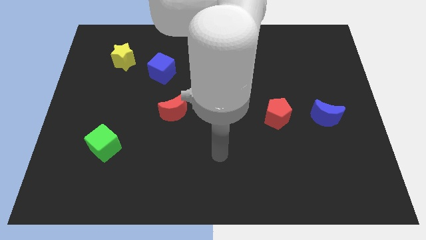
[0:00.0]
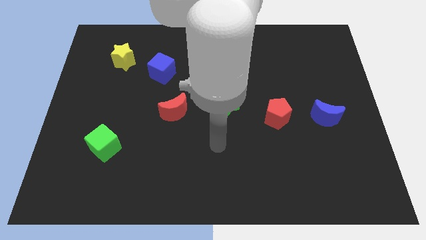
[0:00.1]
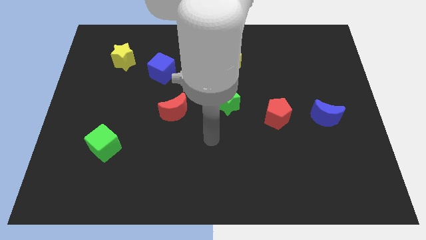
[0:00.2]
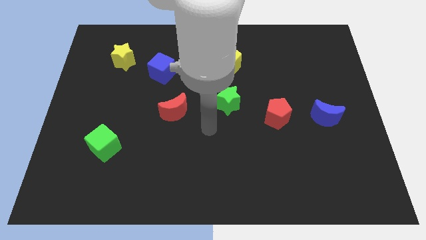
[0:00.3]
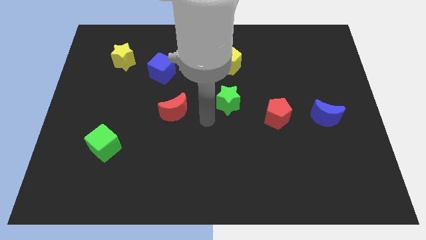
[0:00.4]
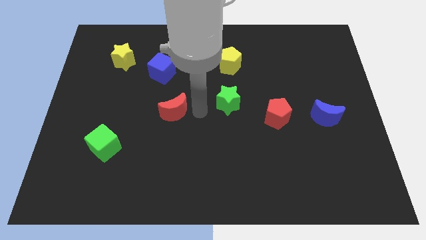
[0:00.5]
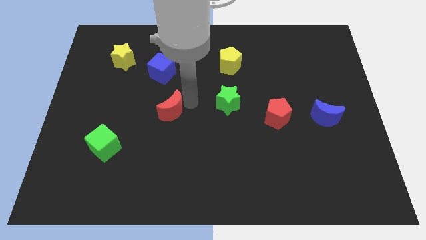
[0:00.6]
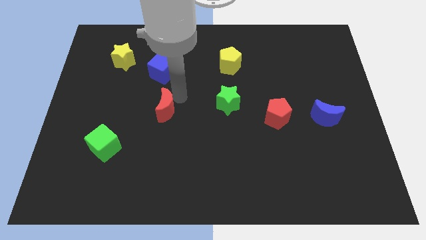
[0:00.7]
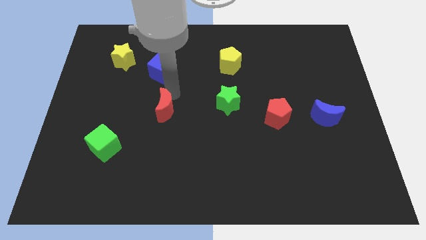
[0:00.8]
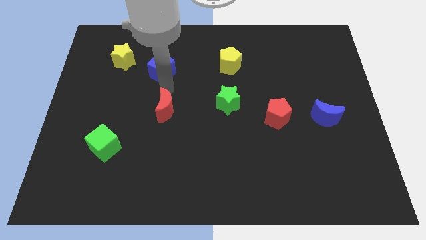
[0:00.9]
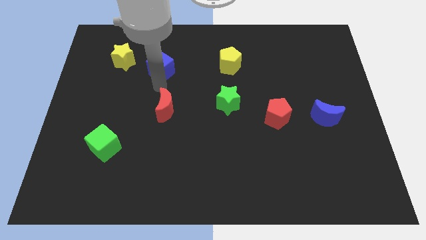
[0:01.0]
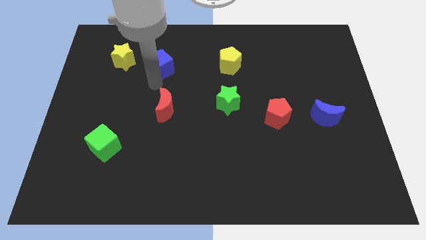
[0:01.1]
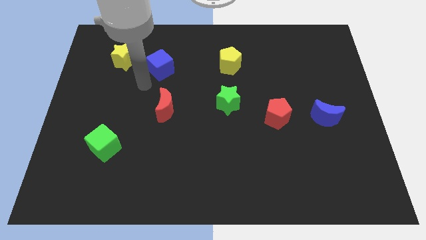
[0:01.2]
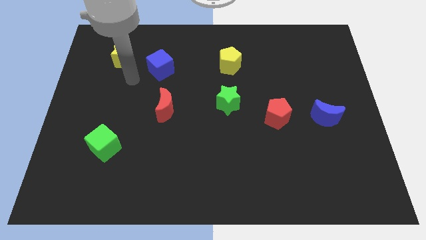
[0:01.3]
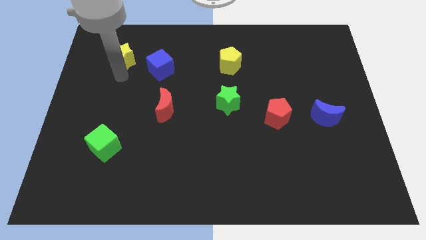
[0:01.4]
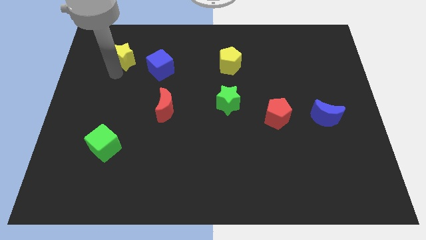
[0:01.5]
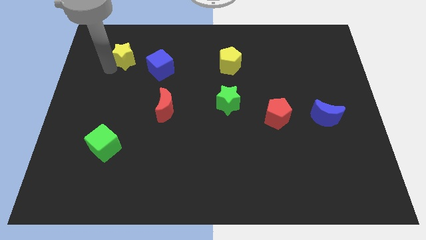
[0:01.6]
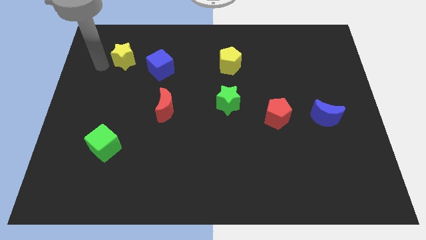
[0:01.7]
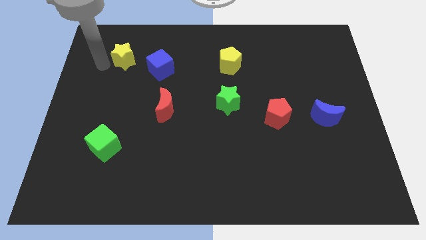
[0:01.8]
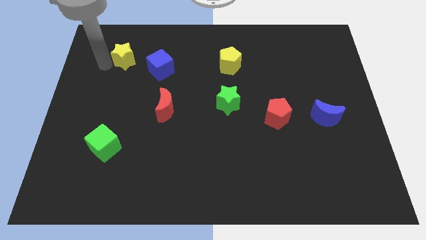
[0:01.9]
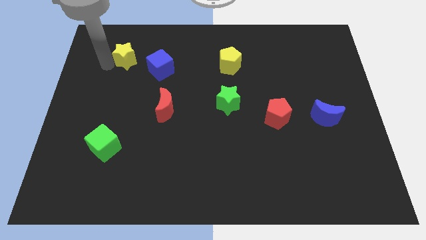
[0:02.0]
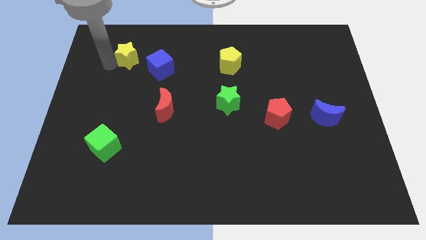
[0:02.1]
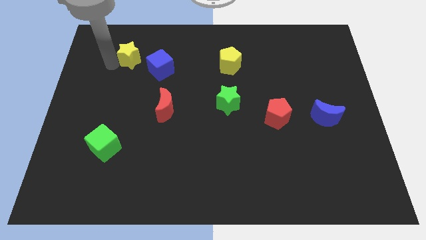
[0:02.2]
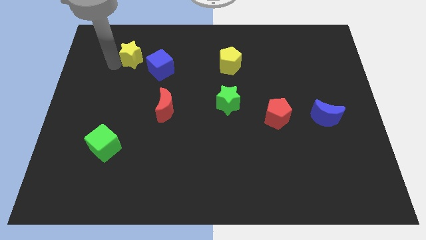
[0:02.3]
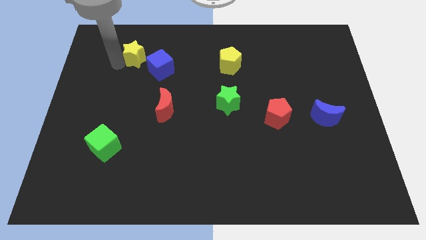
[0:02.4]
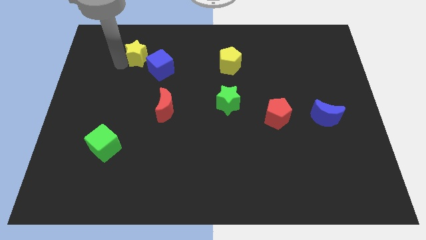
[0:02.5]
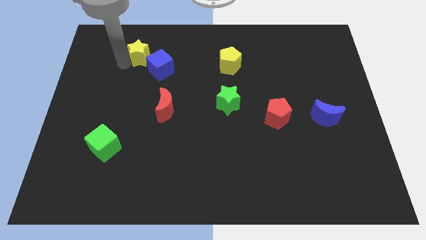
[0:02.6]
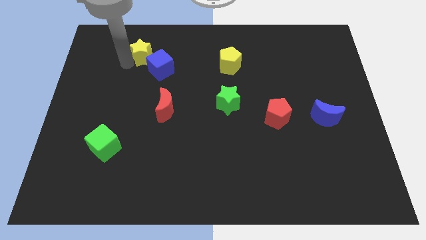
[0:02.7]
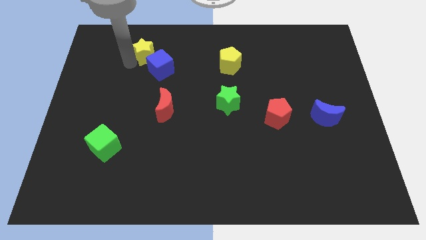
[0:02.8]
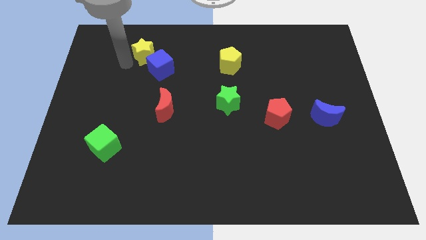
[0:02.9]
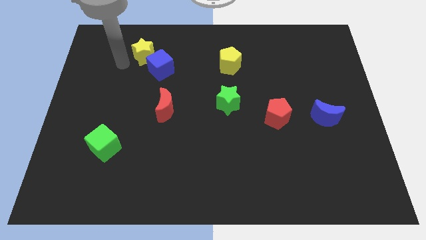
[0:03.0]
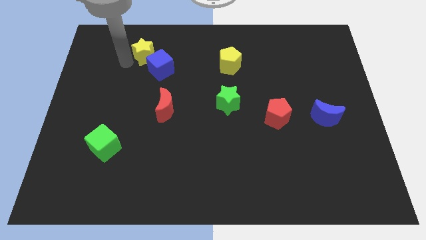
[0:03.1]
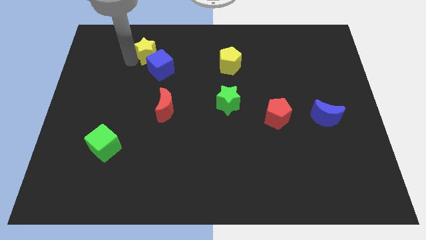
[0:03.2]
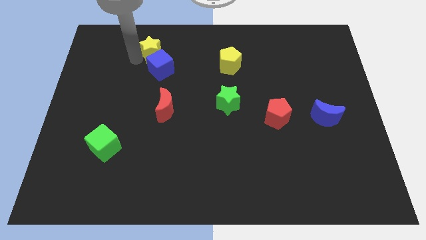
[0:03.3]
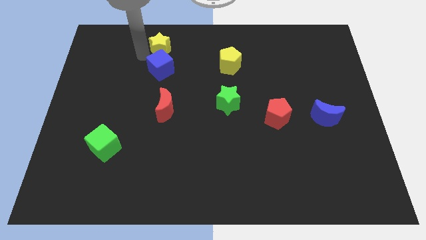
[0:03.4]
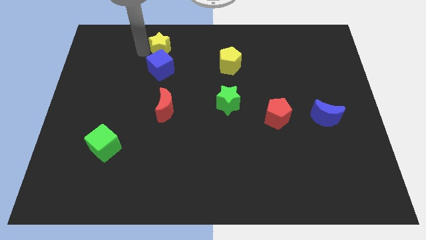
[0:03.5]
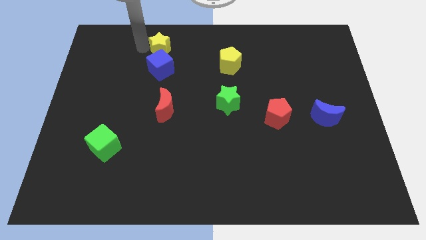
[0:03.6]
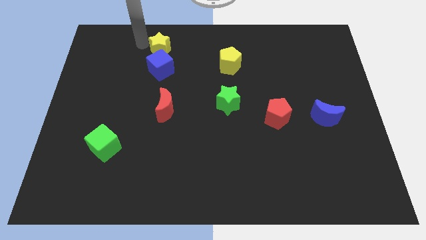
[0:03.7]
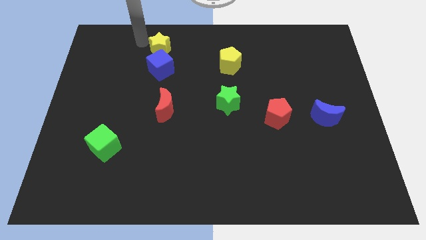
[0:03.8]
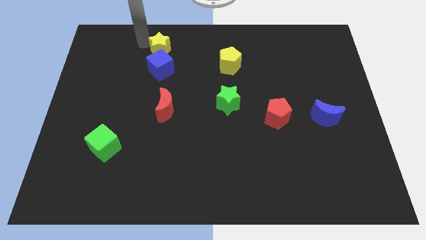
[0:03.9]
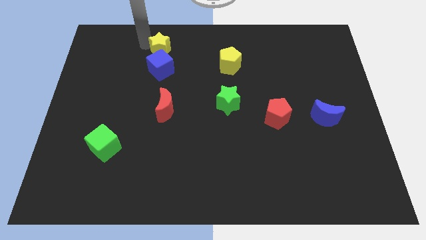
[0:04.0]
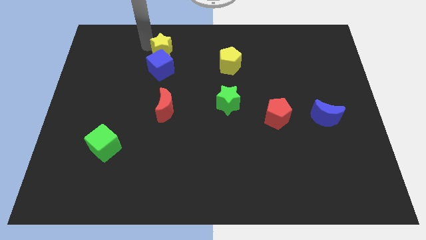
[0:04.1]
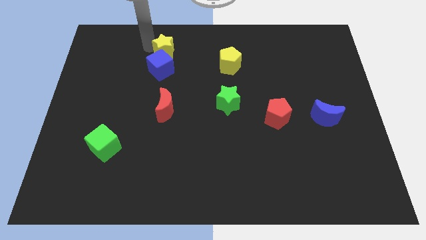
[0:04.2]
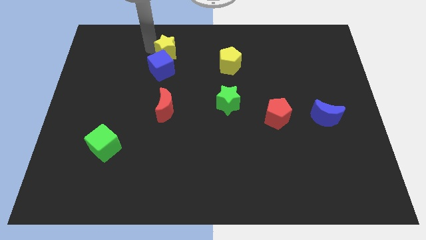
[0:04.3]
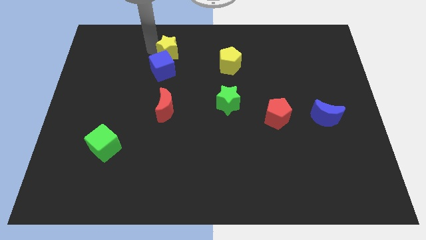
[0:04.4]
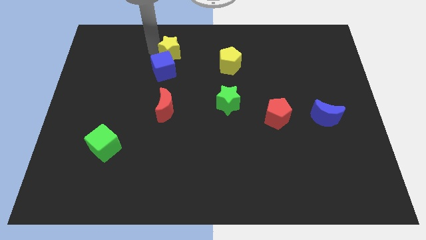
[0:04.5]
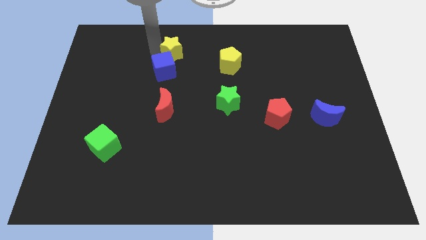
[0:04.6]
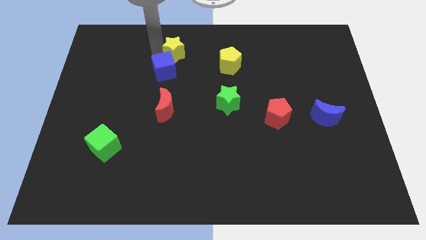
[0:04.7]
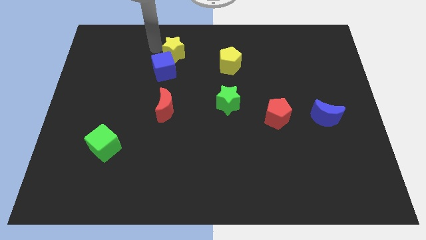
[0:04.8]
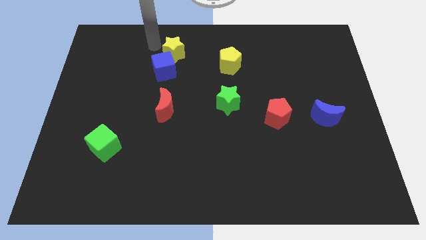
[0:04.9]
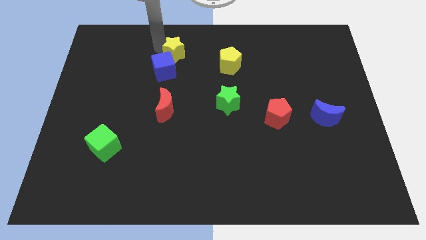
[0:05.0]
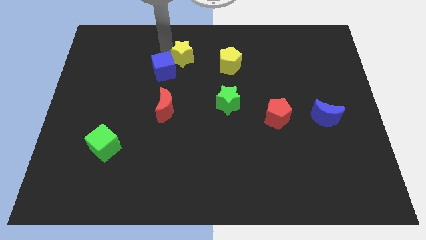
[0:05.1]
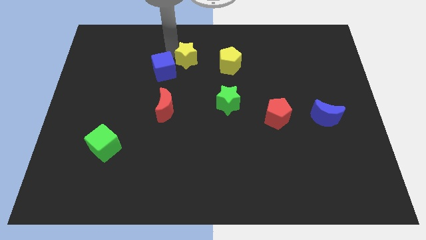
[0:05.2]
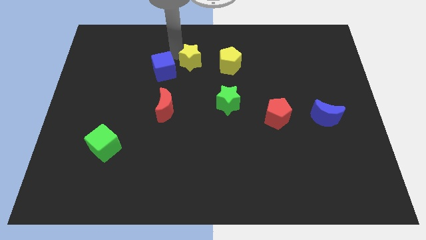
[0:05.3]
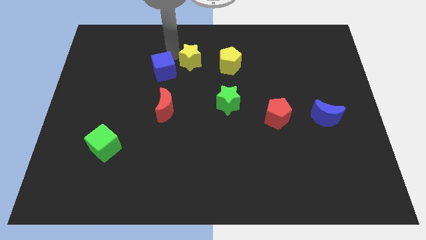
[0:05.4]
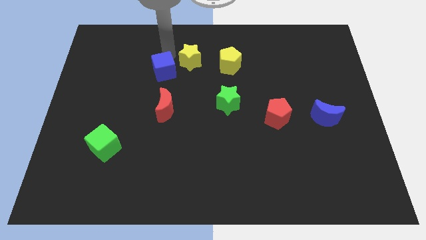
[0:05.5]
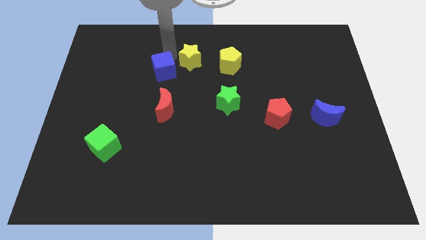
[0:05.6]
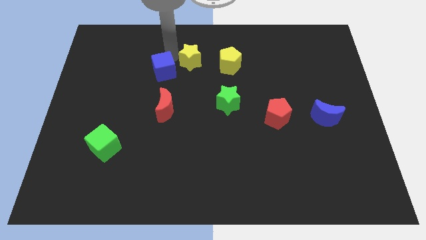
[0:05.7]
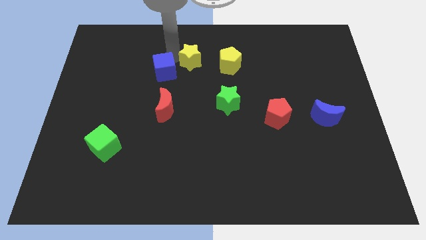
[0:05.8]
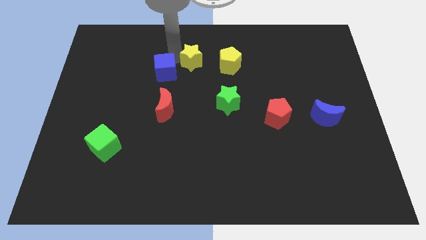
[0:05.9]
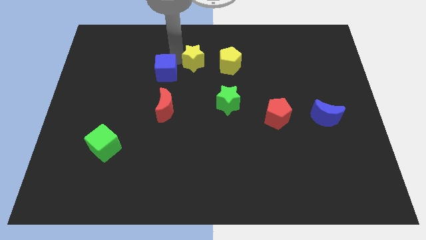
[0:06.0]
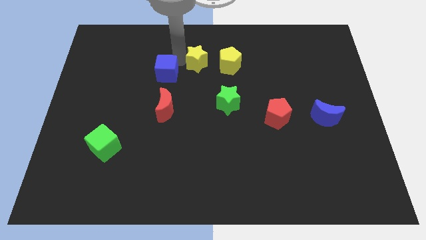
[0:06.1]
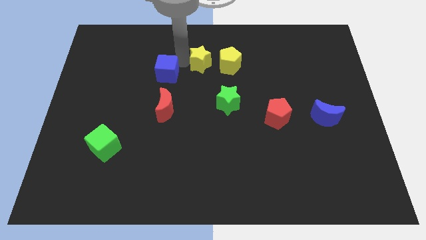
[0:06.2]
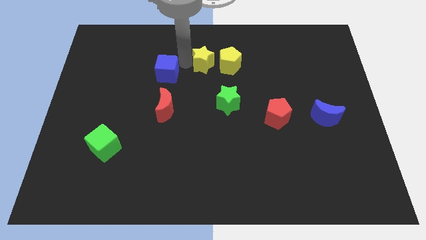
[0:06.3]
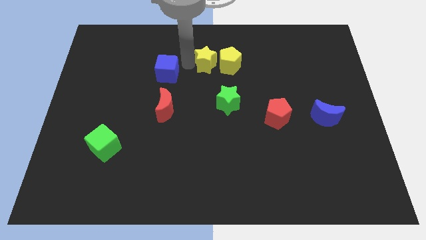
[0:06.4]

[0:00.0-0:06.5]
move the yellow star close to the yellow pentagon

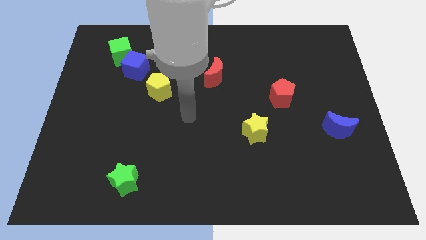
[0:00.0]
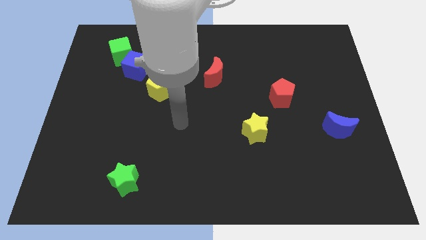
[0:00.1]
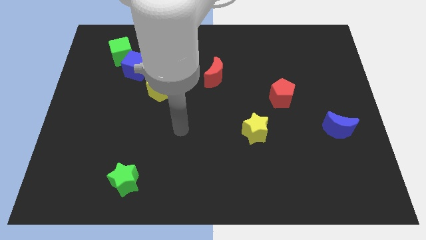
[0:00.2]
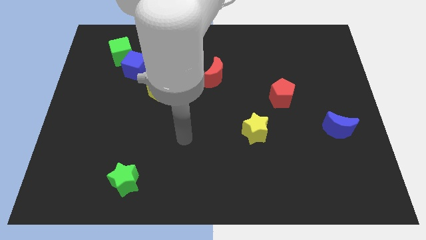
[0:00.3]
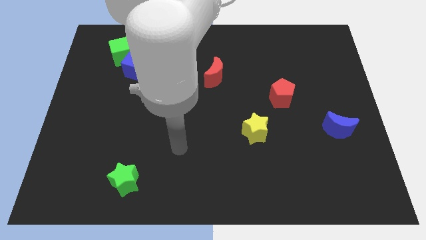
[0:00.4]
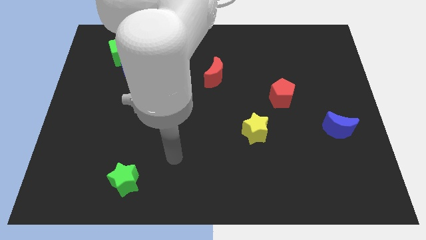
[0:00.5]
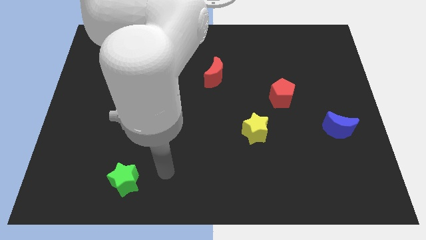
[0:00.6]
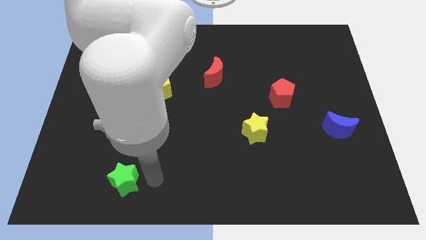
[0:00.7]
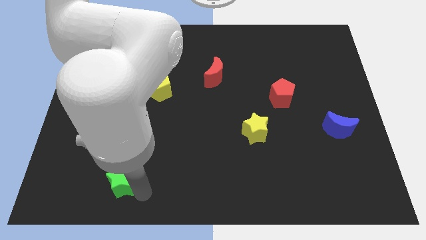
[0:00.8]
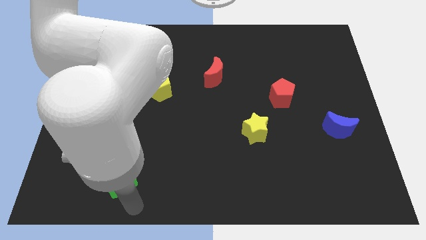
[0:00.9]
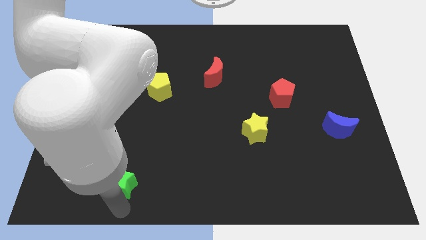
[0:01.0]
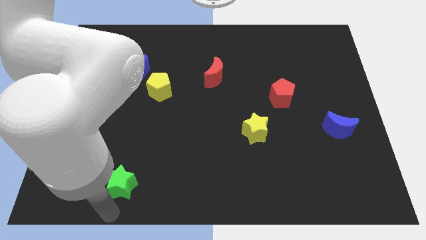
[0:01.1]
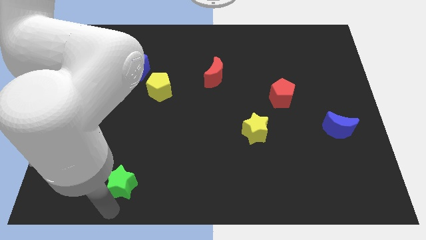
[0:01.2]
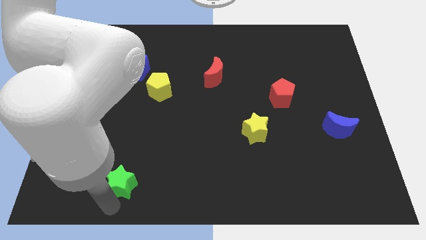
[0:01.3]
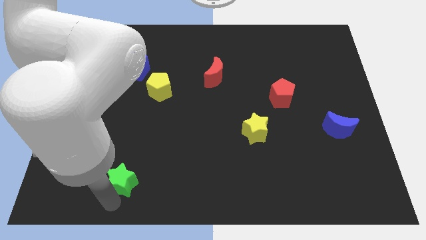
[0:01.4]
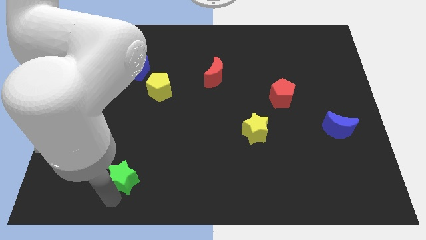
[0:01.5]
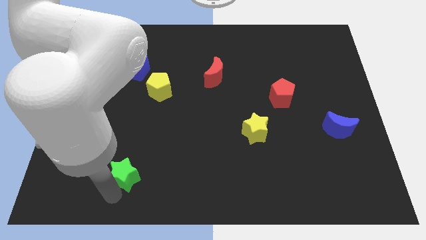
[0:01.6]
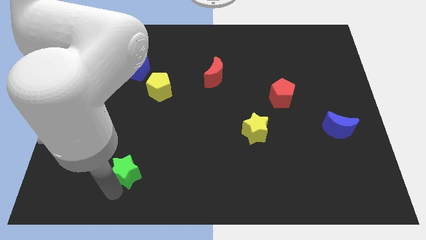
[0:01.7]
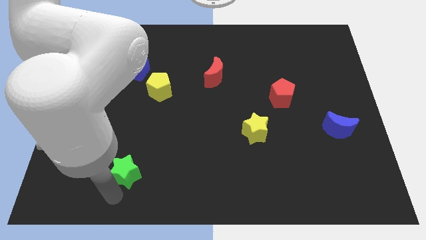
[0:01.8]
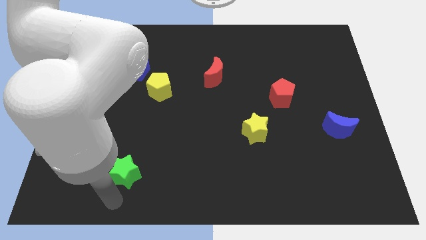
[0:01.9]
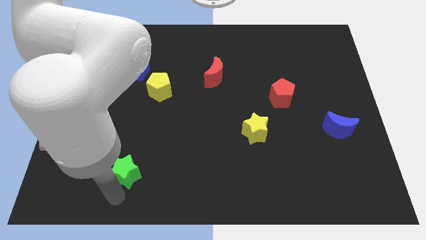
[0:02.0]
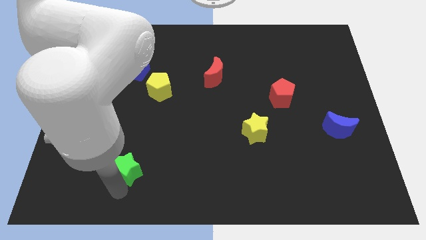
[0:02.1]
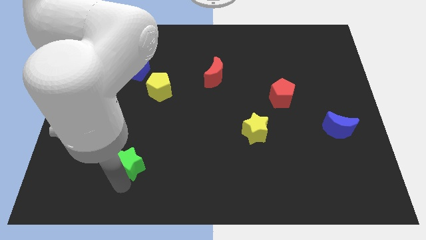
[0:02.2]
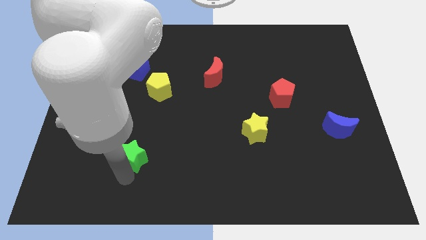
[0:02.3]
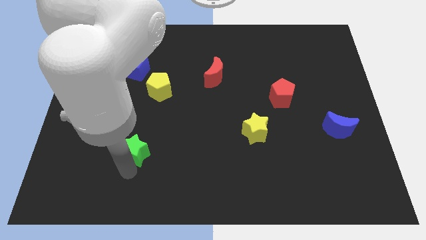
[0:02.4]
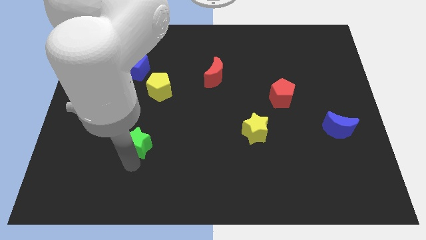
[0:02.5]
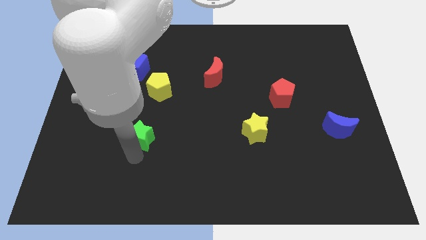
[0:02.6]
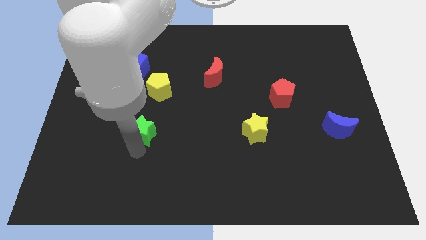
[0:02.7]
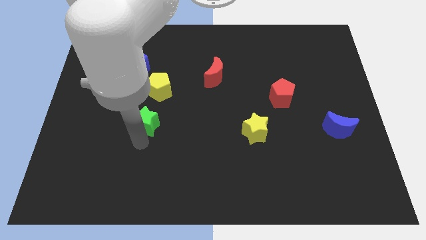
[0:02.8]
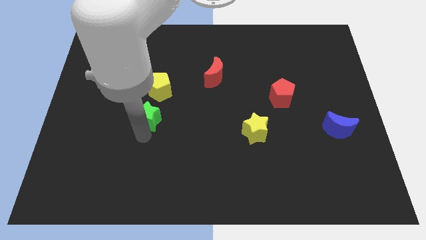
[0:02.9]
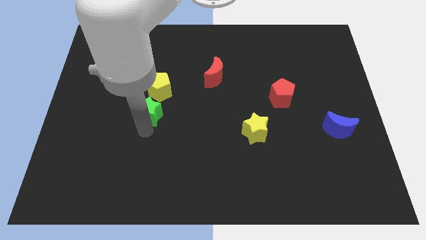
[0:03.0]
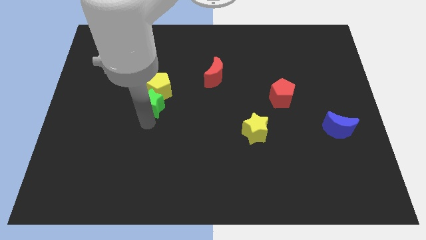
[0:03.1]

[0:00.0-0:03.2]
put the green star next to the yellow pentagon
